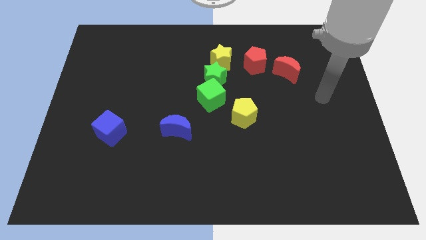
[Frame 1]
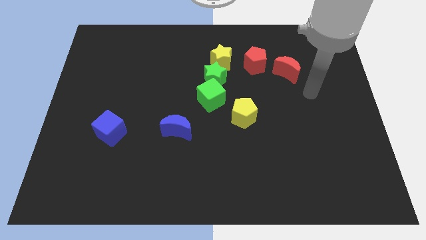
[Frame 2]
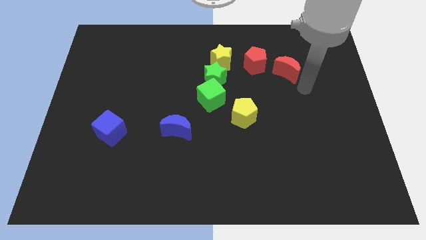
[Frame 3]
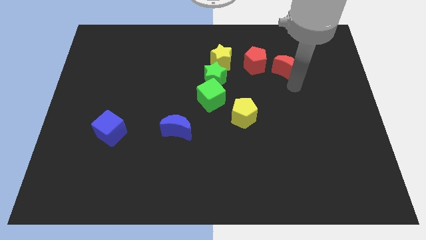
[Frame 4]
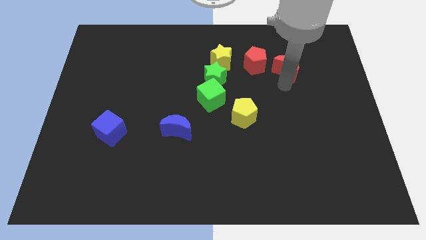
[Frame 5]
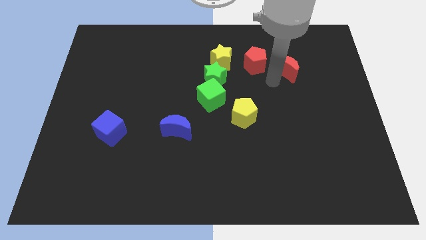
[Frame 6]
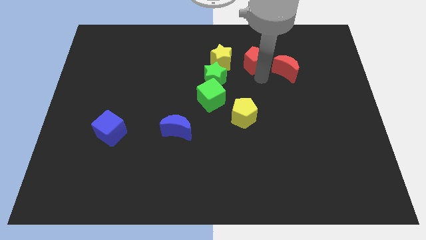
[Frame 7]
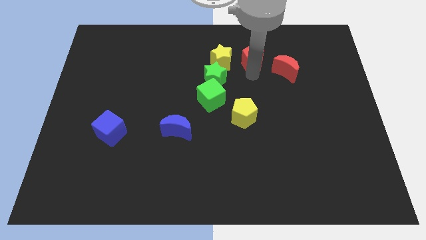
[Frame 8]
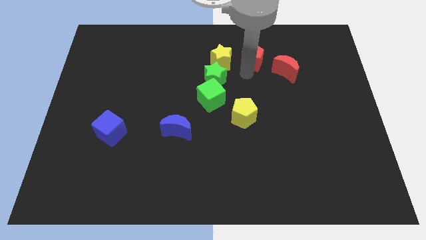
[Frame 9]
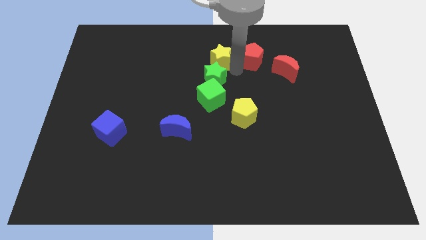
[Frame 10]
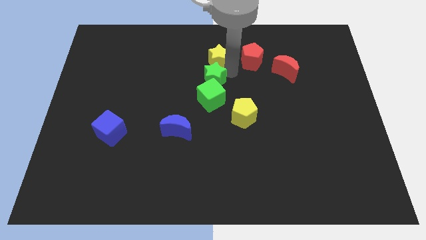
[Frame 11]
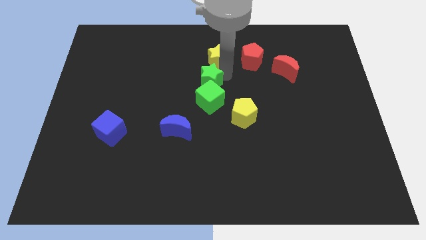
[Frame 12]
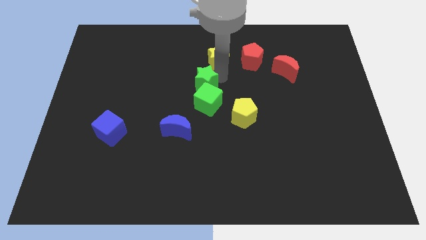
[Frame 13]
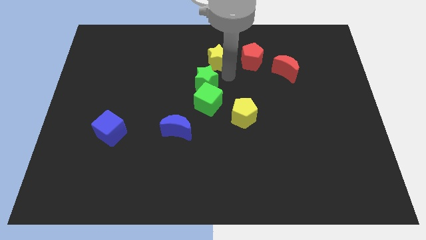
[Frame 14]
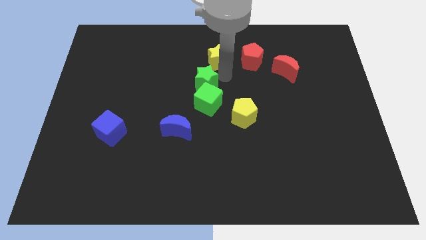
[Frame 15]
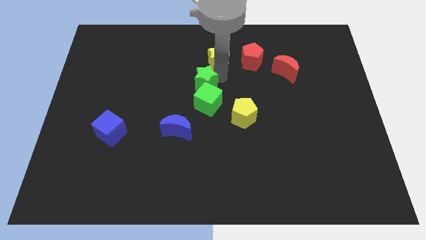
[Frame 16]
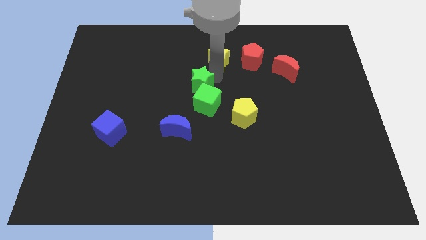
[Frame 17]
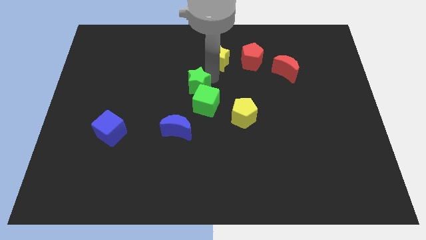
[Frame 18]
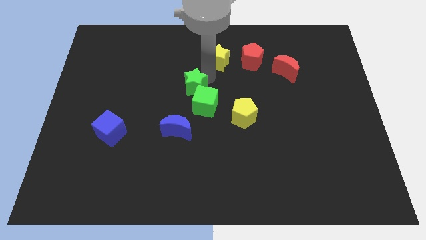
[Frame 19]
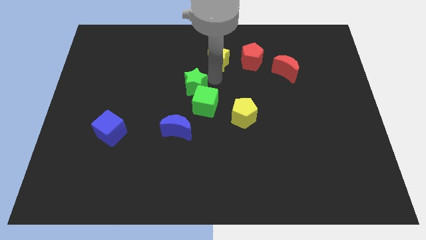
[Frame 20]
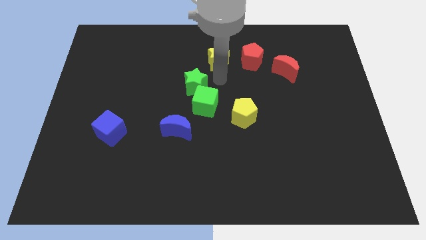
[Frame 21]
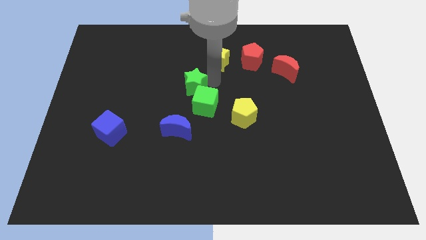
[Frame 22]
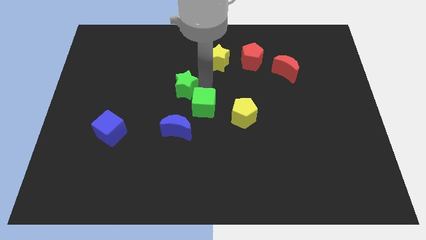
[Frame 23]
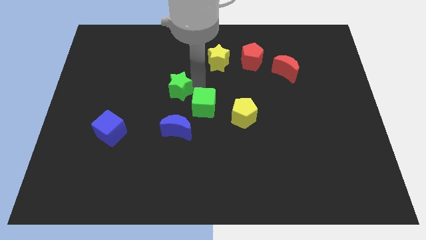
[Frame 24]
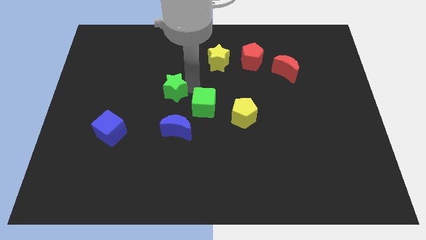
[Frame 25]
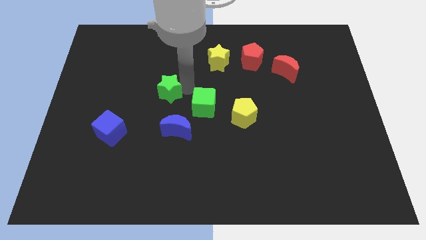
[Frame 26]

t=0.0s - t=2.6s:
separate the green star from the green cube and yellow star

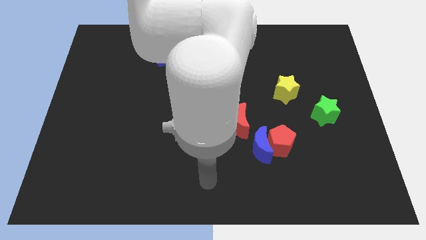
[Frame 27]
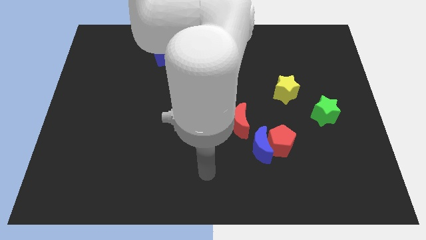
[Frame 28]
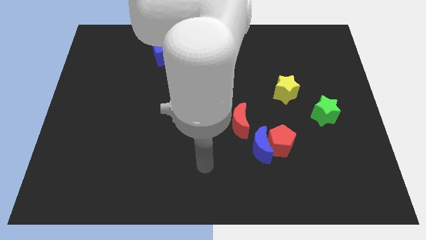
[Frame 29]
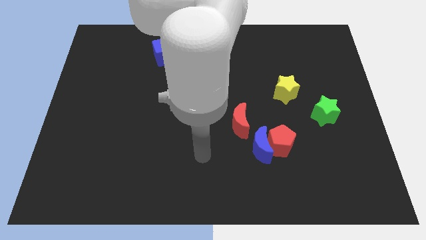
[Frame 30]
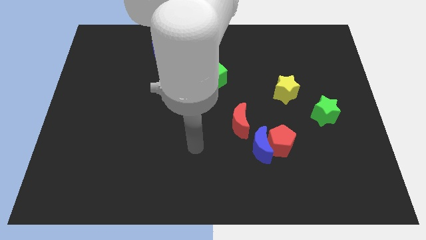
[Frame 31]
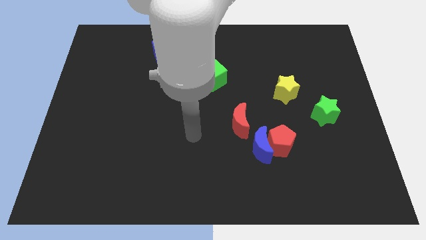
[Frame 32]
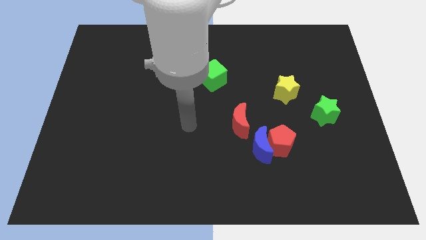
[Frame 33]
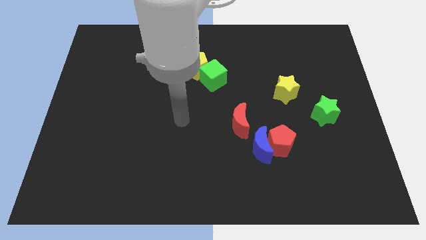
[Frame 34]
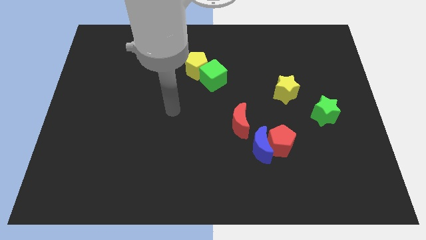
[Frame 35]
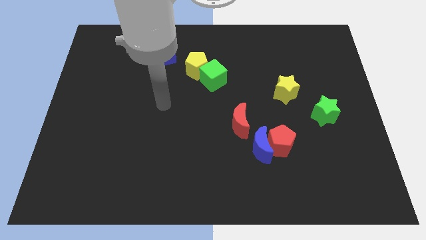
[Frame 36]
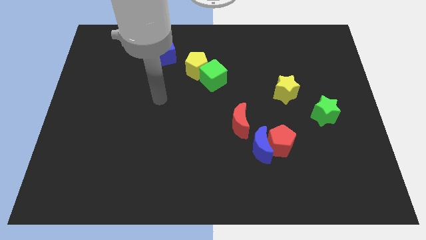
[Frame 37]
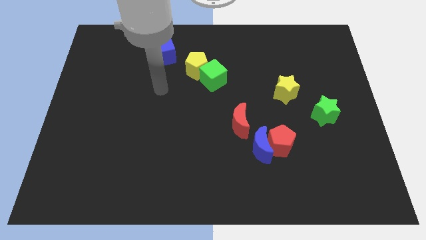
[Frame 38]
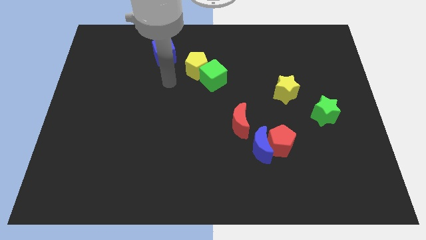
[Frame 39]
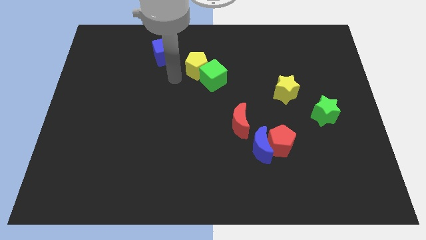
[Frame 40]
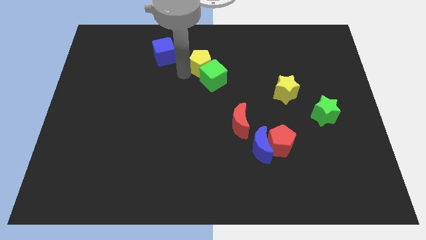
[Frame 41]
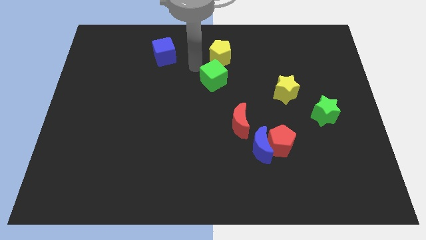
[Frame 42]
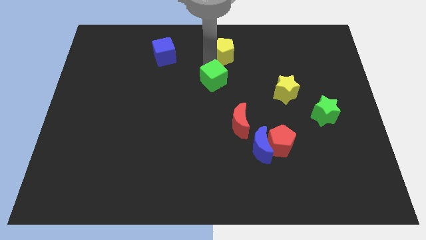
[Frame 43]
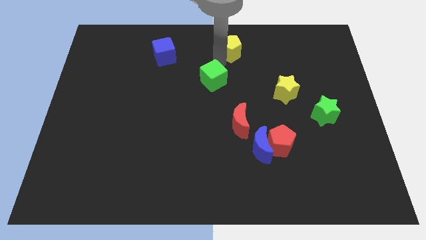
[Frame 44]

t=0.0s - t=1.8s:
pull the green cube apart from the yellow pentagon

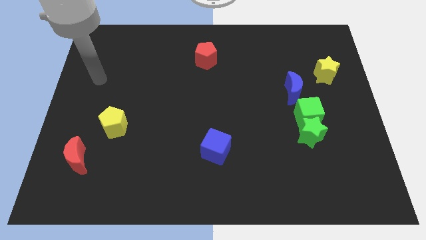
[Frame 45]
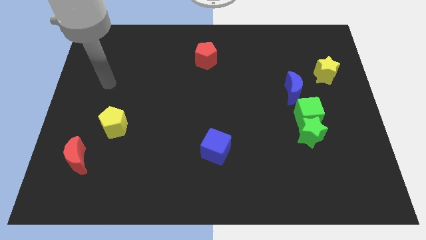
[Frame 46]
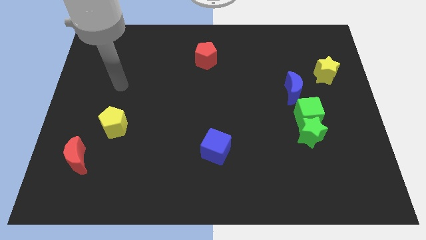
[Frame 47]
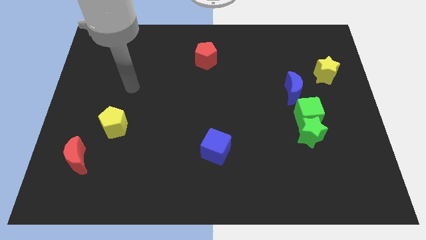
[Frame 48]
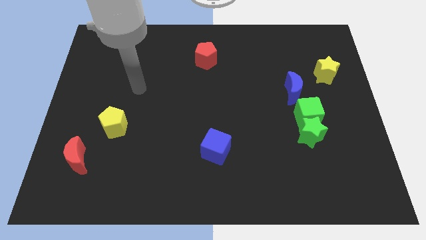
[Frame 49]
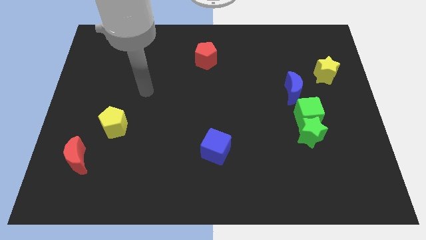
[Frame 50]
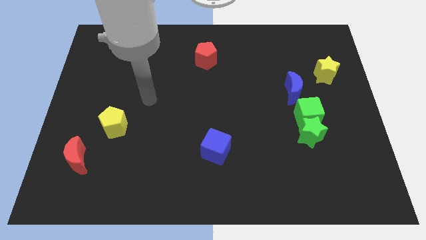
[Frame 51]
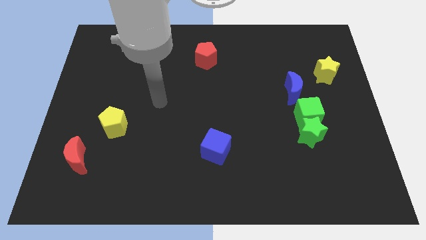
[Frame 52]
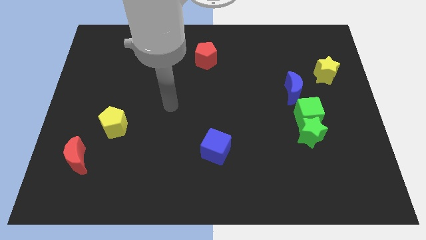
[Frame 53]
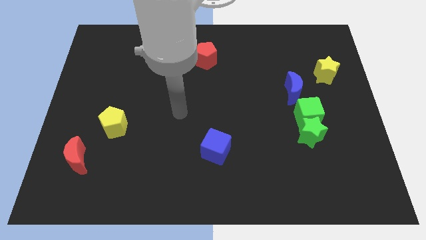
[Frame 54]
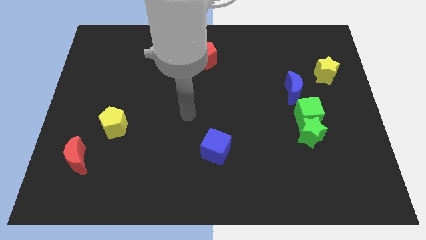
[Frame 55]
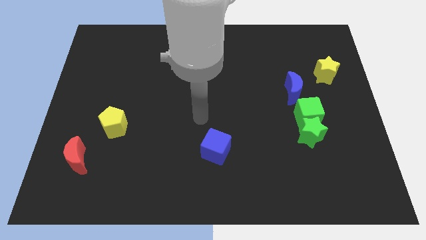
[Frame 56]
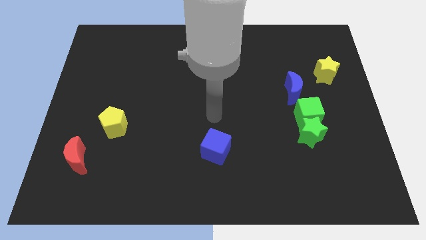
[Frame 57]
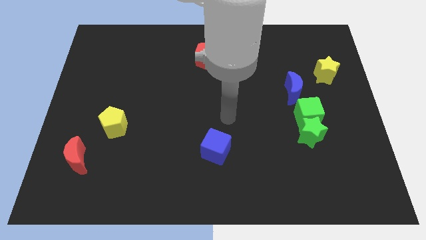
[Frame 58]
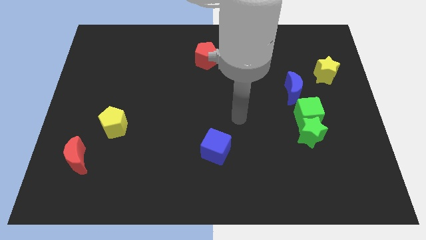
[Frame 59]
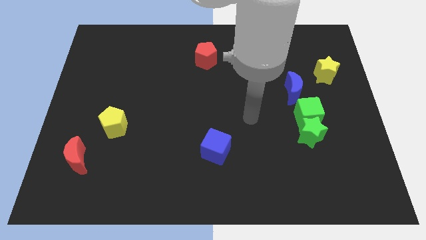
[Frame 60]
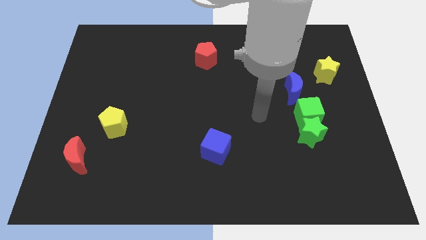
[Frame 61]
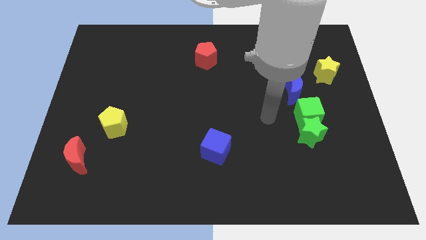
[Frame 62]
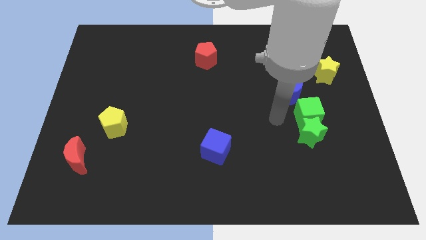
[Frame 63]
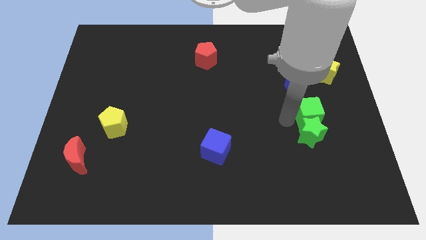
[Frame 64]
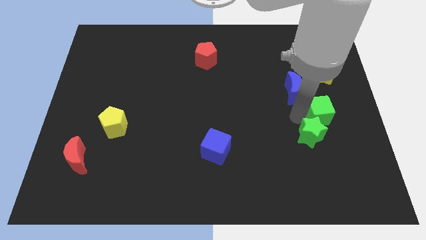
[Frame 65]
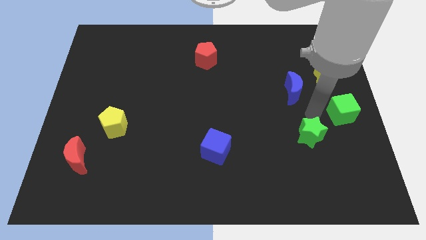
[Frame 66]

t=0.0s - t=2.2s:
separate the green star from the green cube

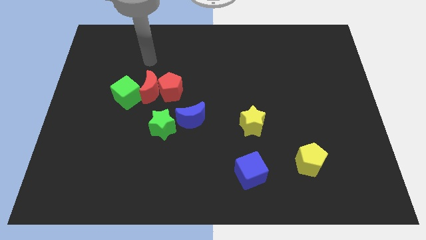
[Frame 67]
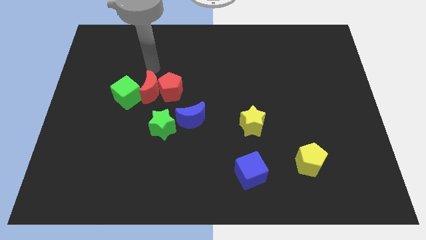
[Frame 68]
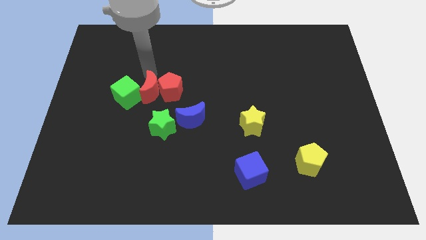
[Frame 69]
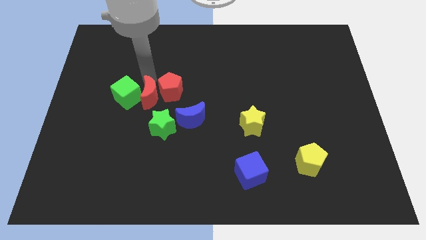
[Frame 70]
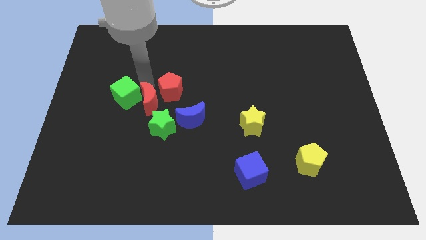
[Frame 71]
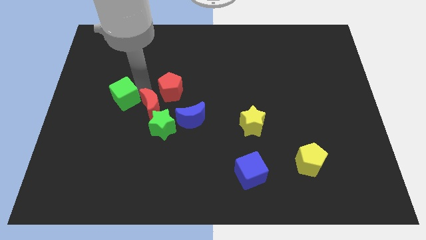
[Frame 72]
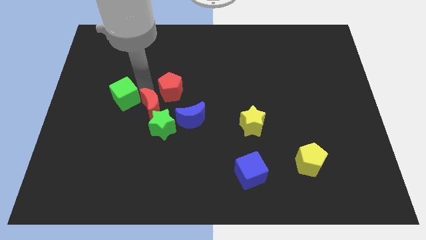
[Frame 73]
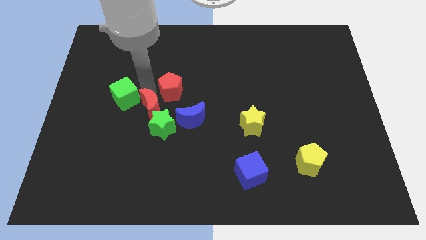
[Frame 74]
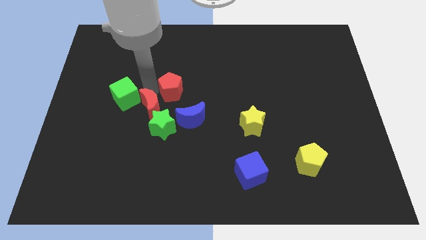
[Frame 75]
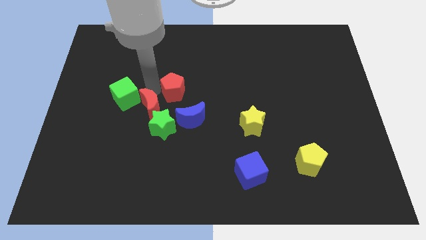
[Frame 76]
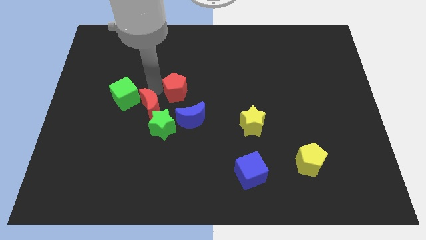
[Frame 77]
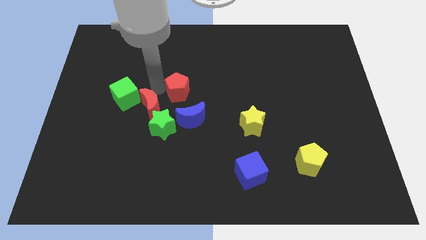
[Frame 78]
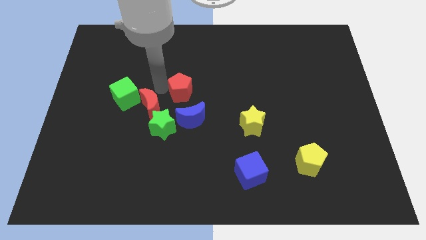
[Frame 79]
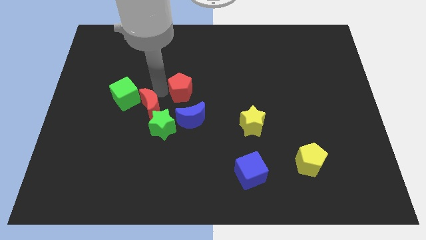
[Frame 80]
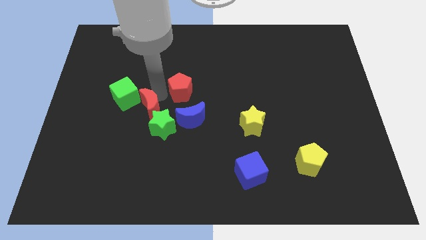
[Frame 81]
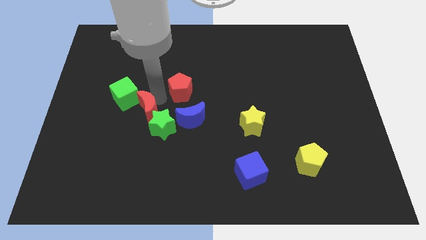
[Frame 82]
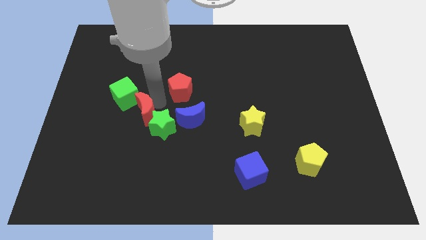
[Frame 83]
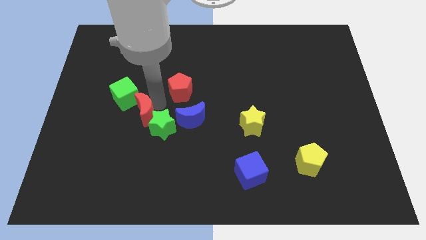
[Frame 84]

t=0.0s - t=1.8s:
pull the red pentagon apart from the red moon

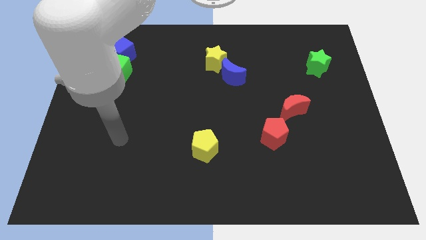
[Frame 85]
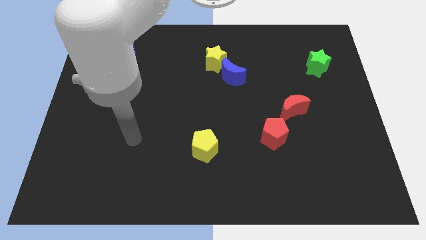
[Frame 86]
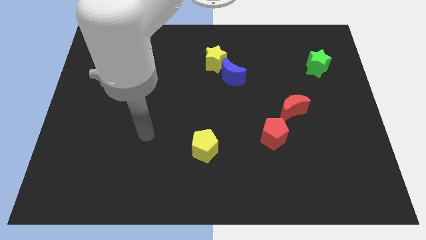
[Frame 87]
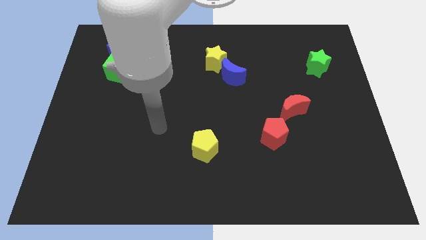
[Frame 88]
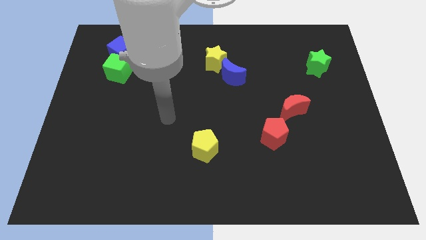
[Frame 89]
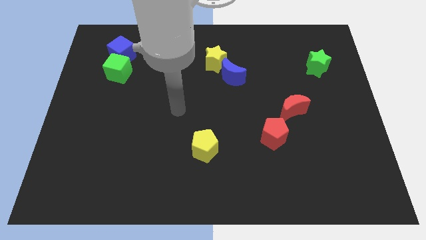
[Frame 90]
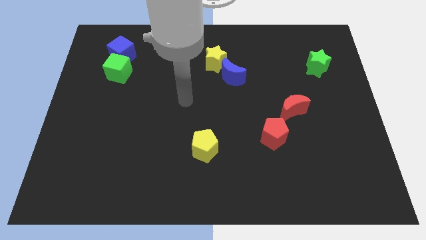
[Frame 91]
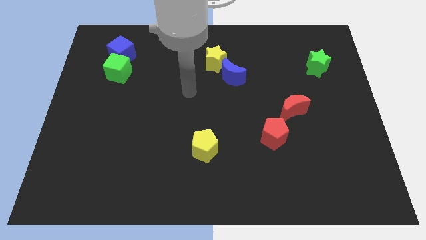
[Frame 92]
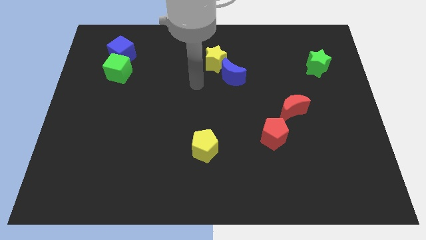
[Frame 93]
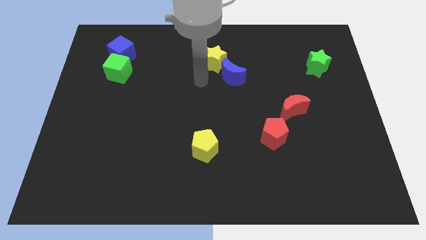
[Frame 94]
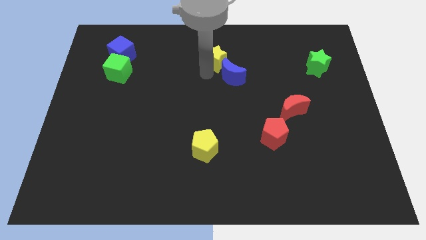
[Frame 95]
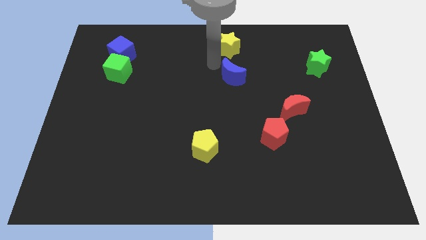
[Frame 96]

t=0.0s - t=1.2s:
move the blue moon away from the yellow star
